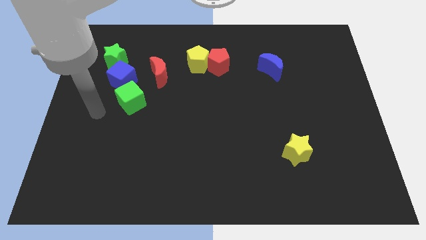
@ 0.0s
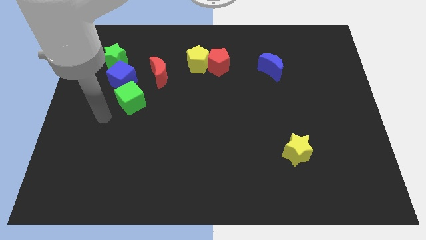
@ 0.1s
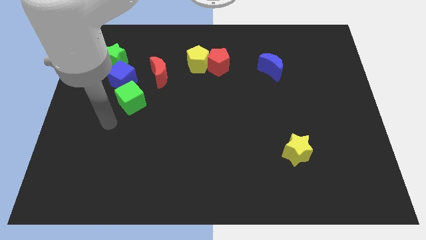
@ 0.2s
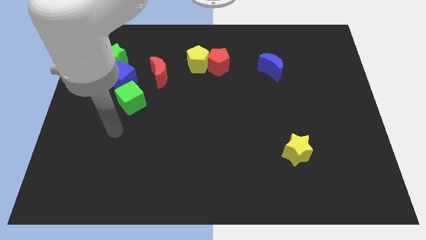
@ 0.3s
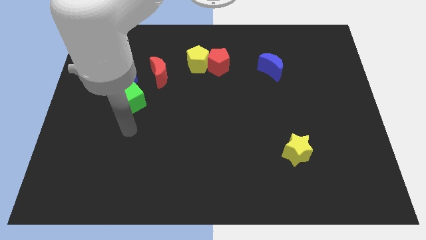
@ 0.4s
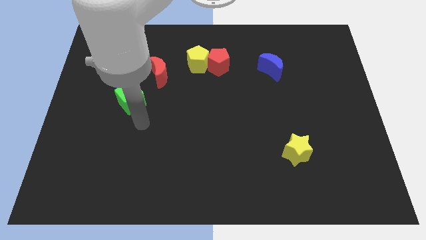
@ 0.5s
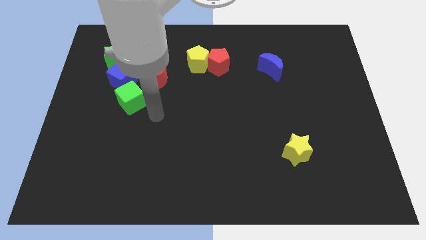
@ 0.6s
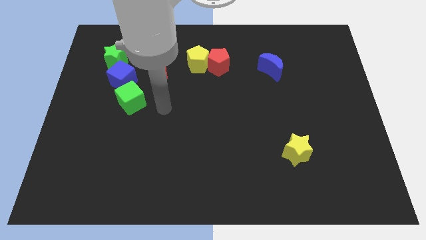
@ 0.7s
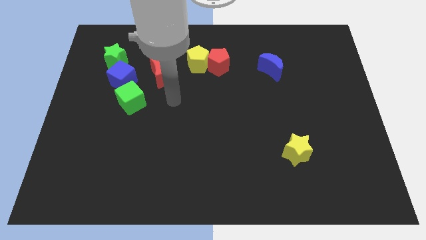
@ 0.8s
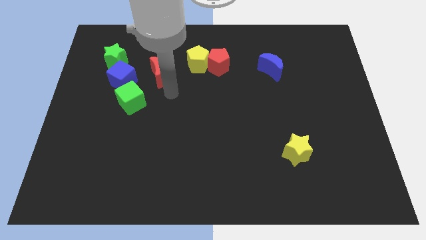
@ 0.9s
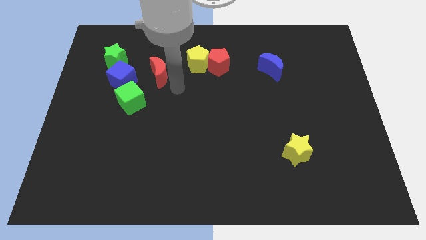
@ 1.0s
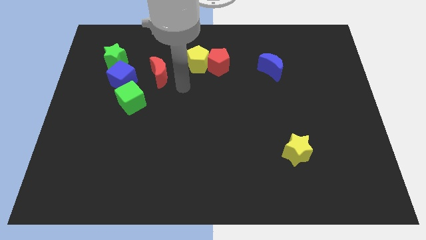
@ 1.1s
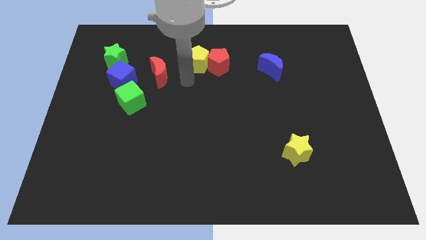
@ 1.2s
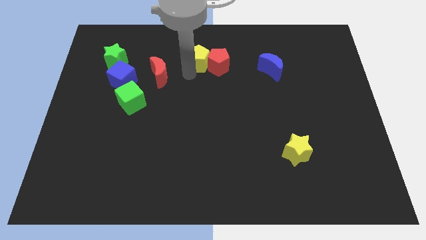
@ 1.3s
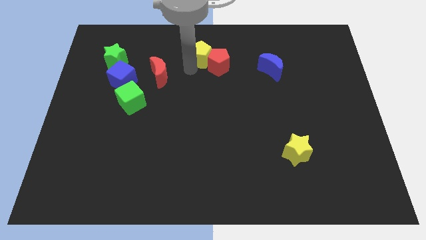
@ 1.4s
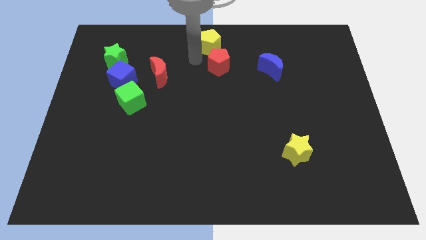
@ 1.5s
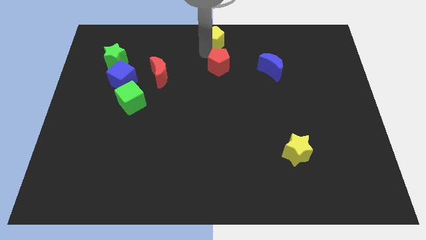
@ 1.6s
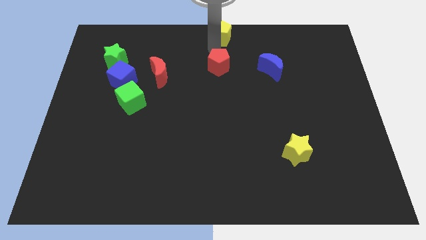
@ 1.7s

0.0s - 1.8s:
pull the red pentagon apart from the yellow pentagon

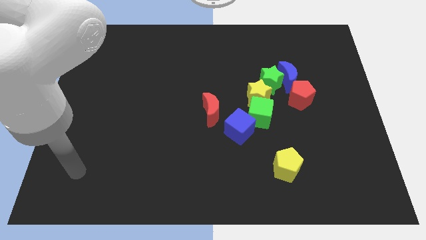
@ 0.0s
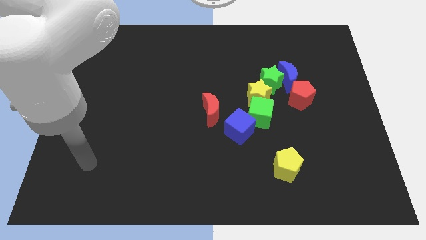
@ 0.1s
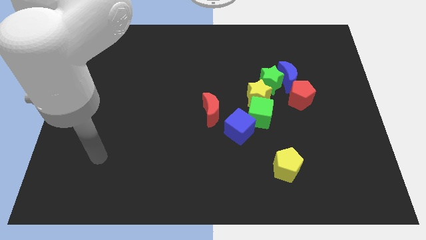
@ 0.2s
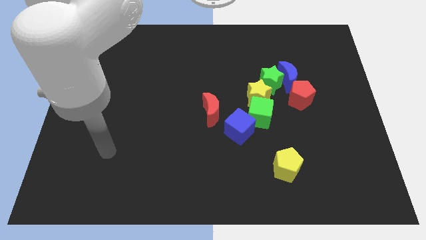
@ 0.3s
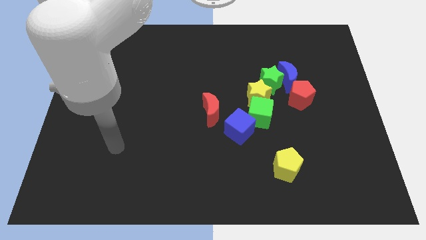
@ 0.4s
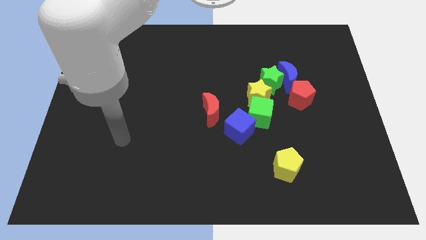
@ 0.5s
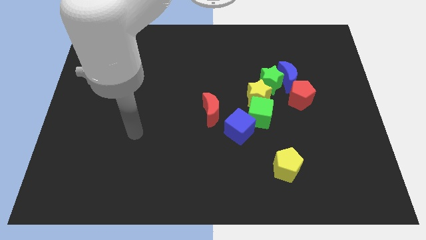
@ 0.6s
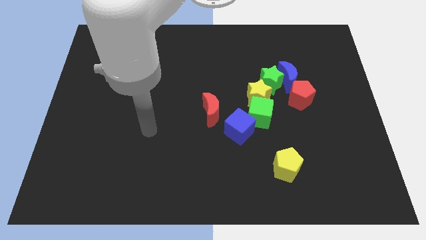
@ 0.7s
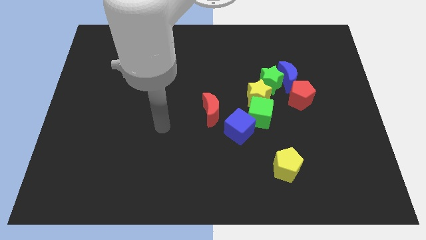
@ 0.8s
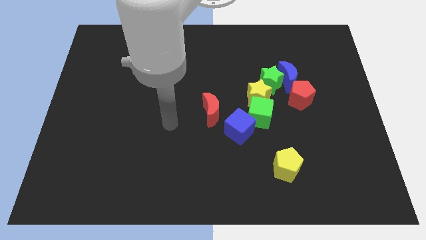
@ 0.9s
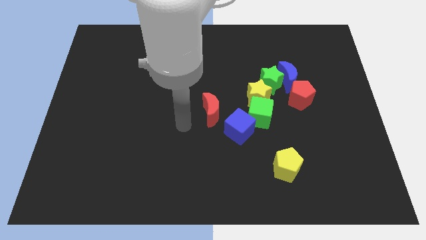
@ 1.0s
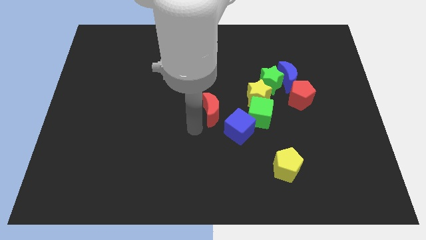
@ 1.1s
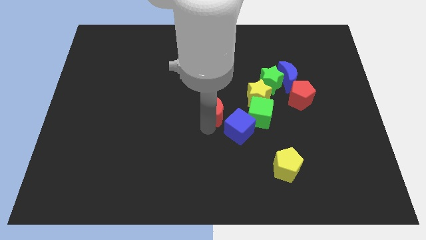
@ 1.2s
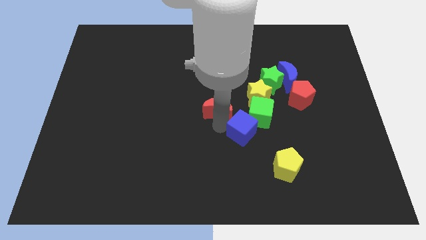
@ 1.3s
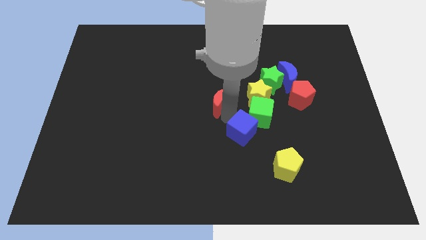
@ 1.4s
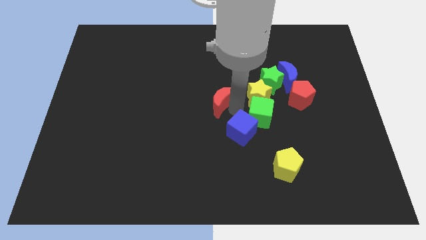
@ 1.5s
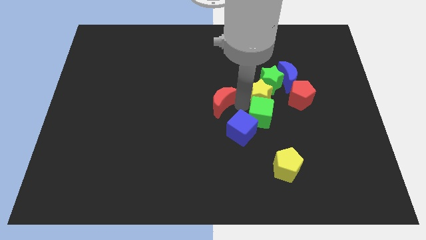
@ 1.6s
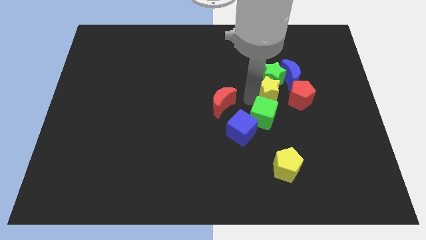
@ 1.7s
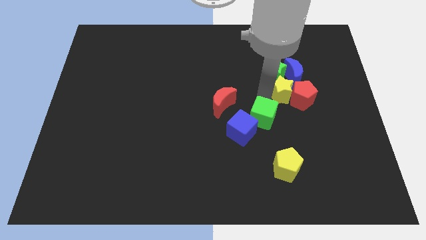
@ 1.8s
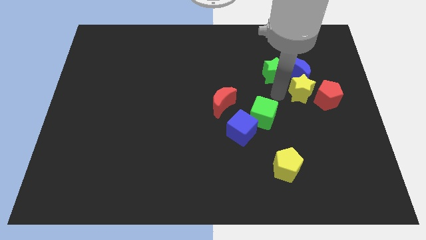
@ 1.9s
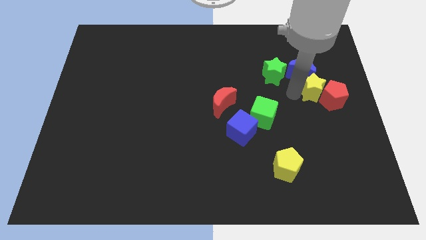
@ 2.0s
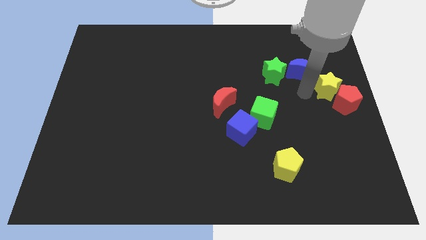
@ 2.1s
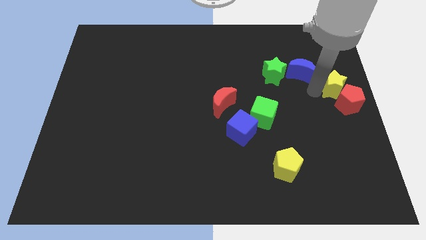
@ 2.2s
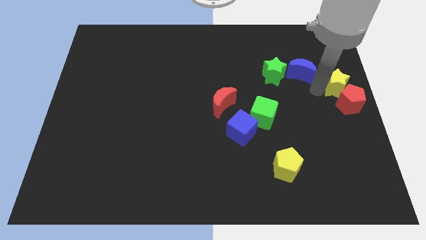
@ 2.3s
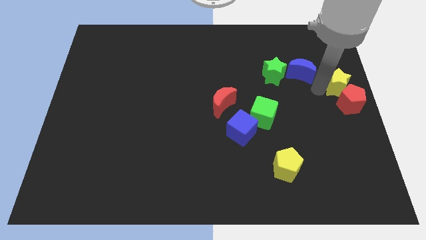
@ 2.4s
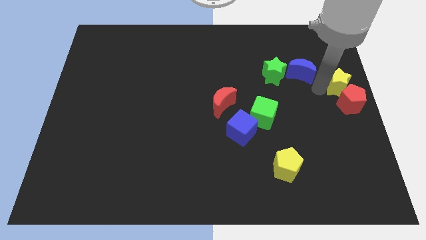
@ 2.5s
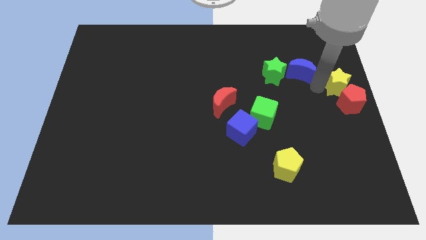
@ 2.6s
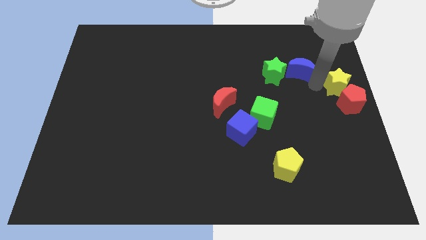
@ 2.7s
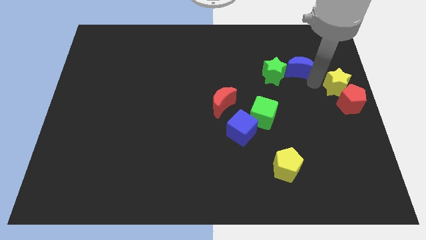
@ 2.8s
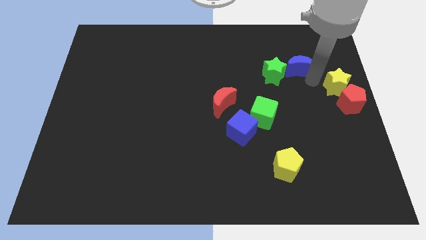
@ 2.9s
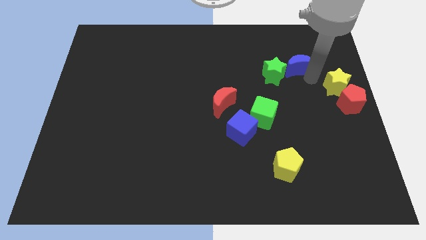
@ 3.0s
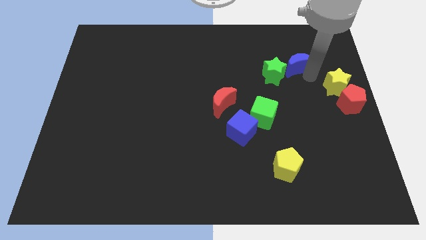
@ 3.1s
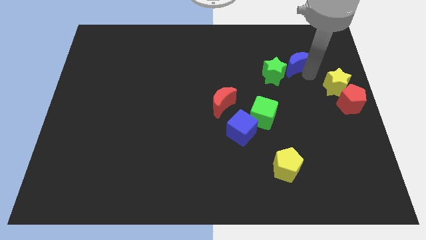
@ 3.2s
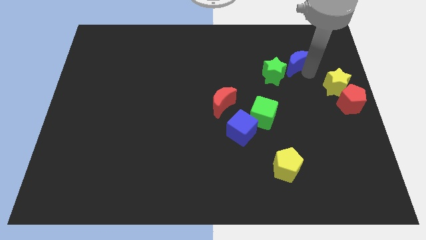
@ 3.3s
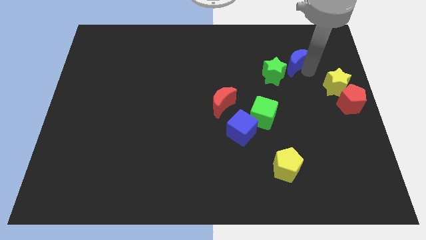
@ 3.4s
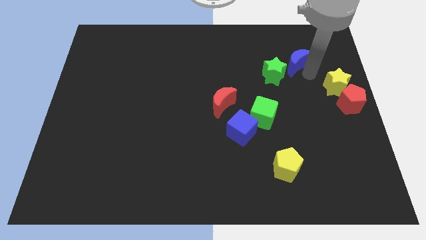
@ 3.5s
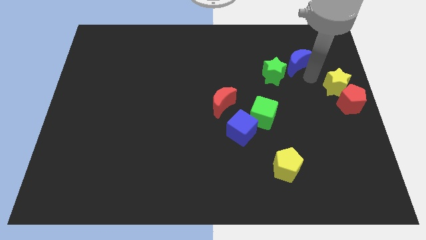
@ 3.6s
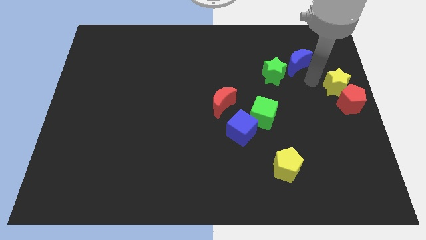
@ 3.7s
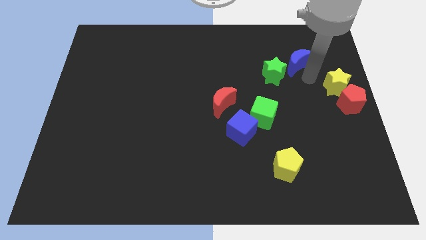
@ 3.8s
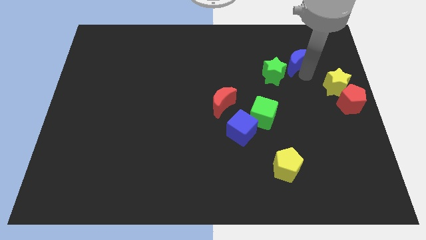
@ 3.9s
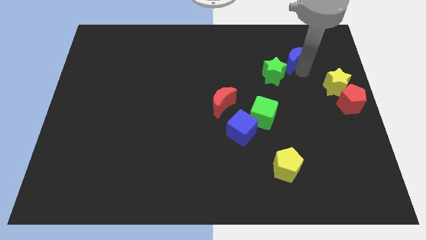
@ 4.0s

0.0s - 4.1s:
separate the blue moon from the group of blocks

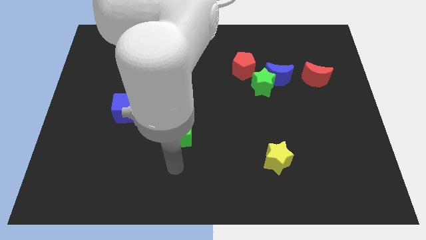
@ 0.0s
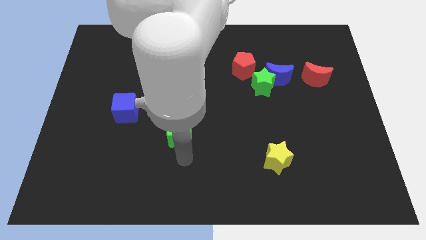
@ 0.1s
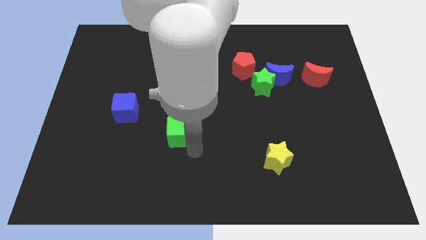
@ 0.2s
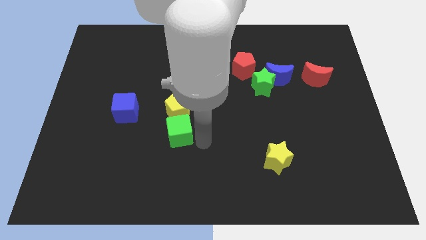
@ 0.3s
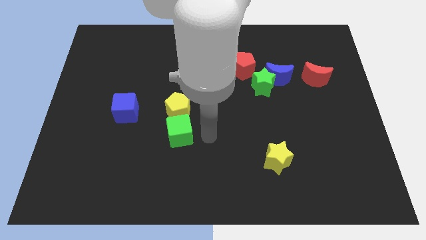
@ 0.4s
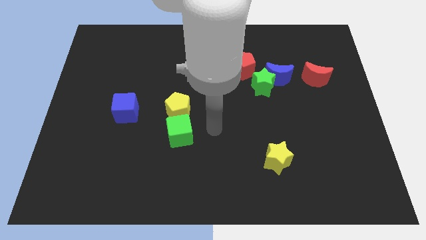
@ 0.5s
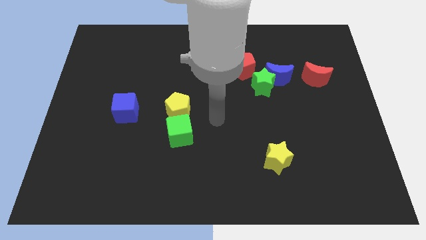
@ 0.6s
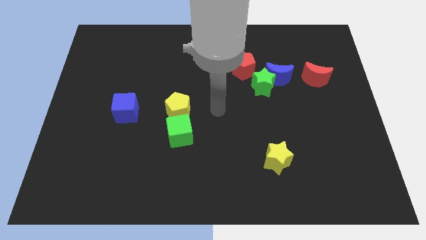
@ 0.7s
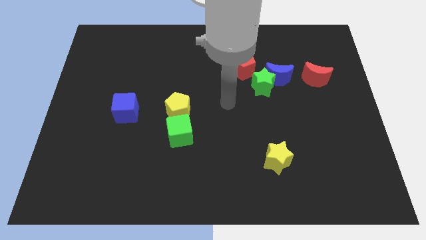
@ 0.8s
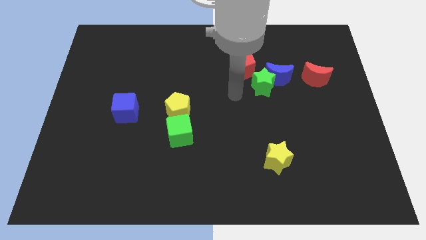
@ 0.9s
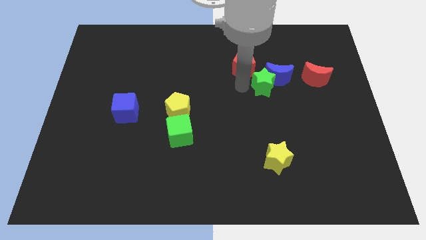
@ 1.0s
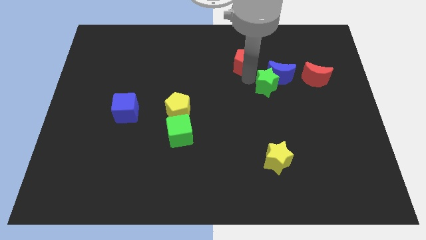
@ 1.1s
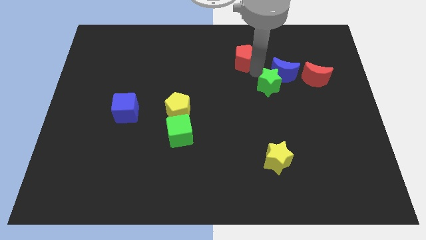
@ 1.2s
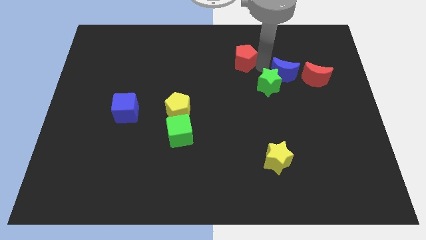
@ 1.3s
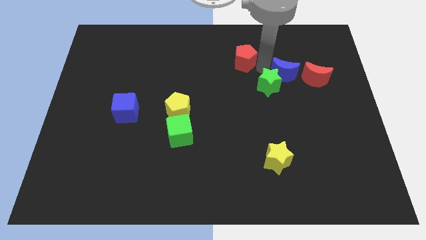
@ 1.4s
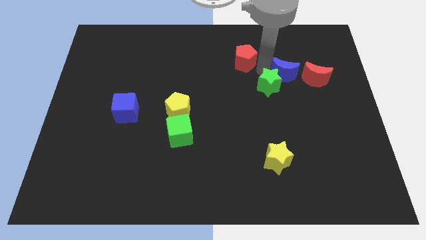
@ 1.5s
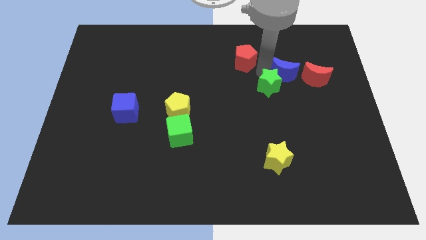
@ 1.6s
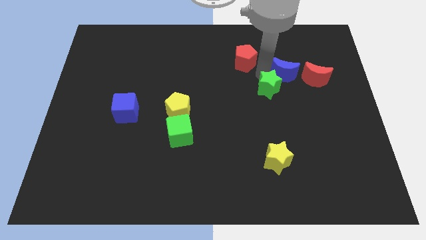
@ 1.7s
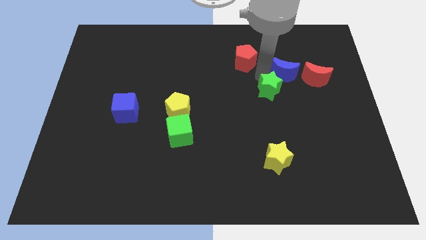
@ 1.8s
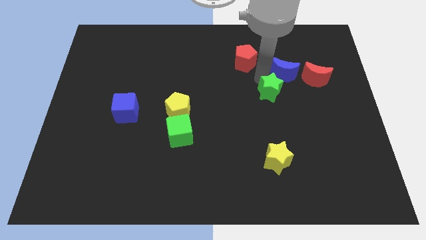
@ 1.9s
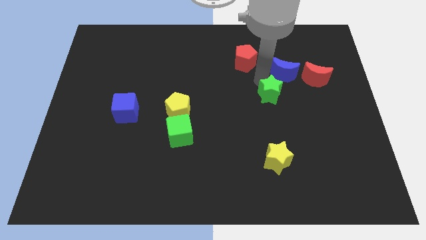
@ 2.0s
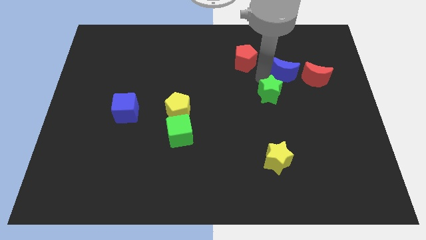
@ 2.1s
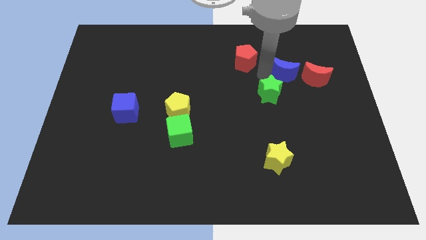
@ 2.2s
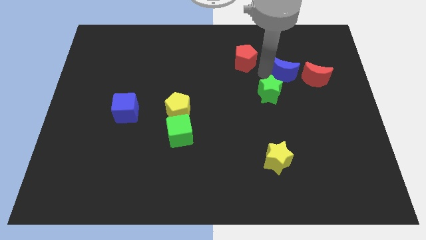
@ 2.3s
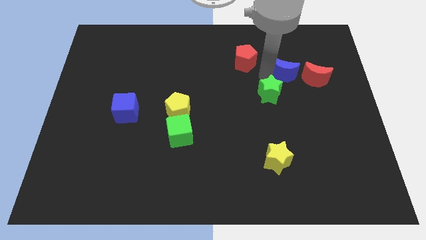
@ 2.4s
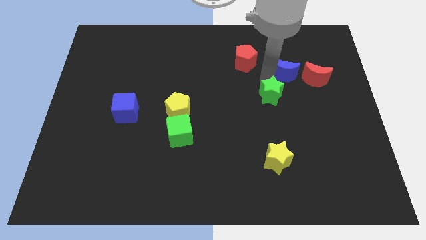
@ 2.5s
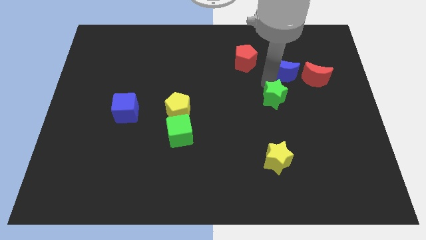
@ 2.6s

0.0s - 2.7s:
pull the green star apart from the blue moon and red pentagon

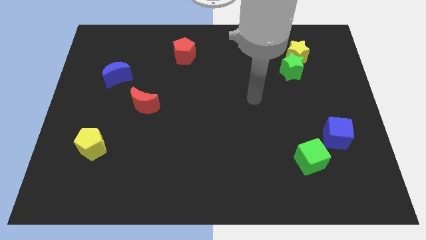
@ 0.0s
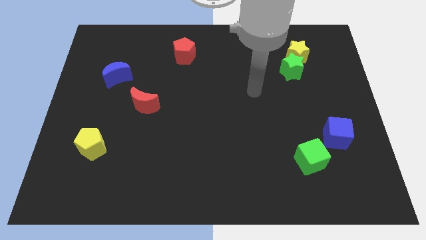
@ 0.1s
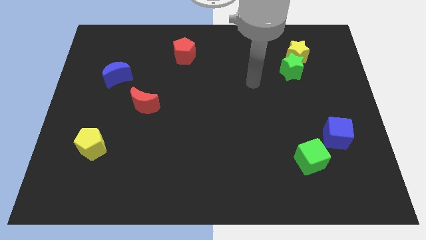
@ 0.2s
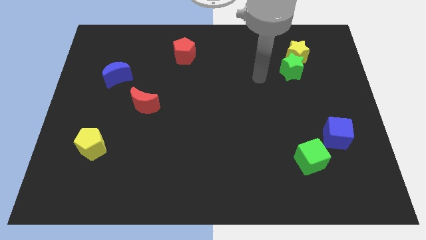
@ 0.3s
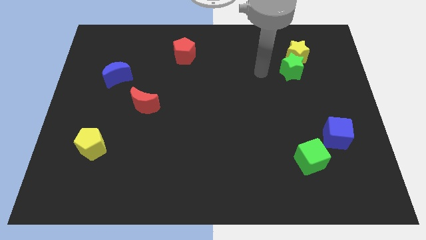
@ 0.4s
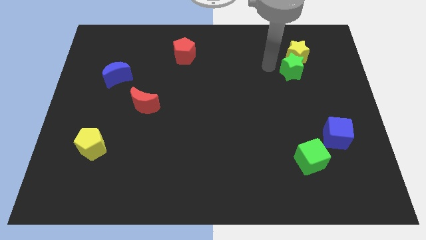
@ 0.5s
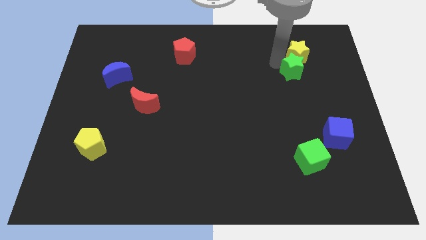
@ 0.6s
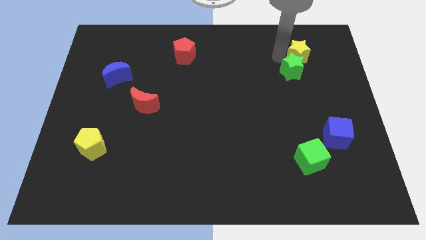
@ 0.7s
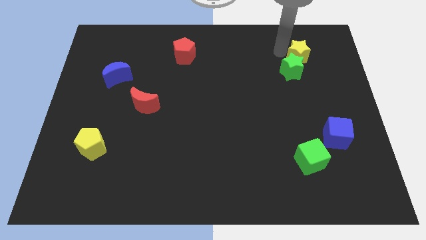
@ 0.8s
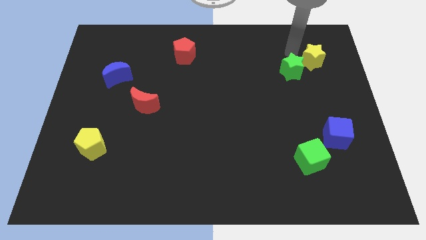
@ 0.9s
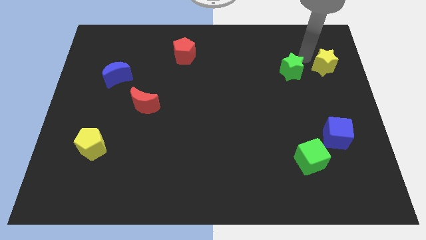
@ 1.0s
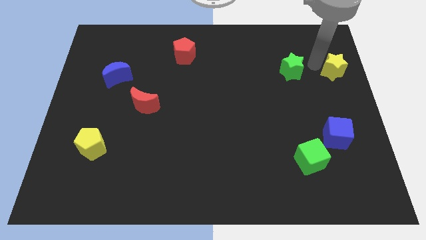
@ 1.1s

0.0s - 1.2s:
separate the green star from the yellow star
